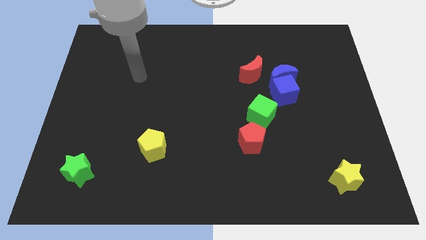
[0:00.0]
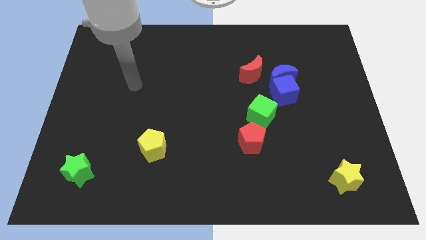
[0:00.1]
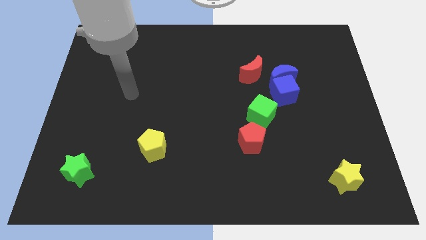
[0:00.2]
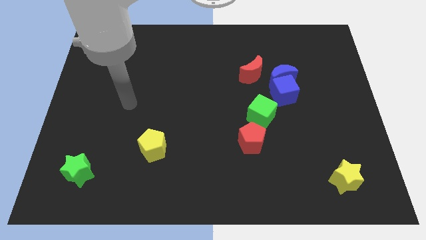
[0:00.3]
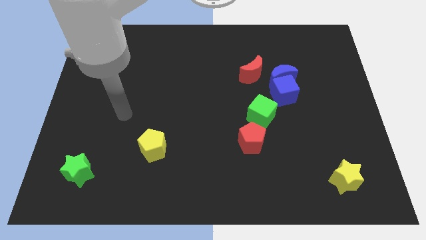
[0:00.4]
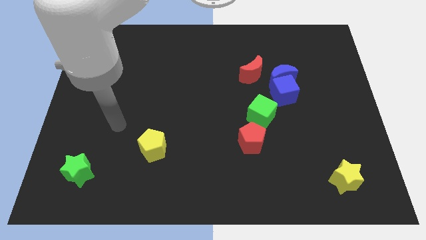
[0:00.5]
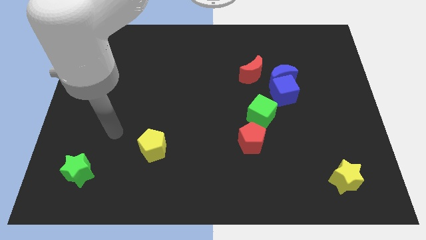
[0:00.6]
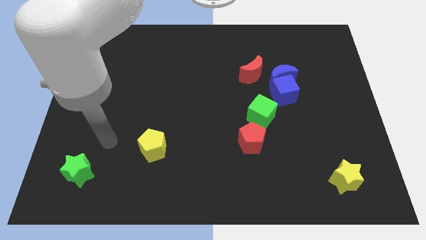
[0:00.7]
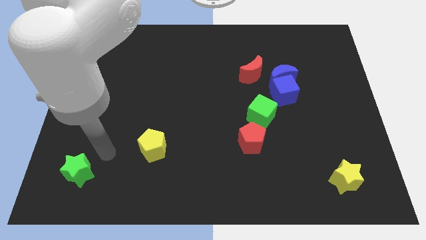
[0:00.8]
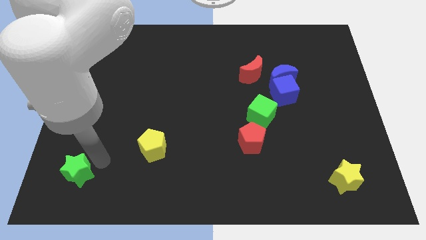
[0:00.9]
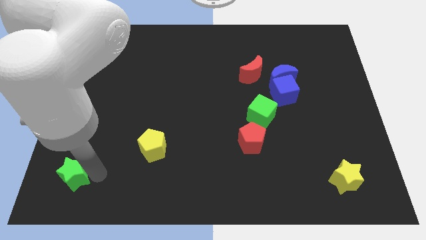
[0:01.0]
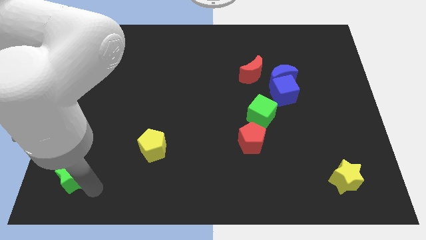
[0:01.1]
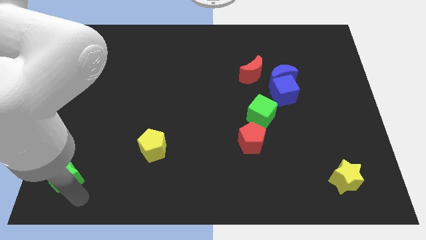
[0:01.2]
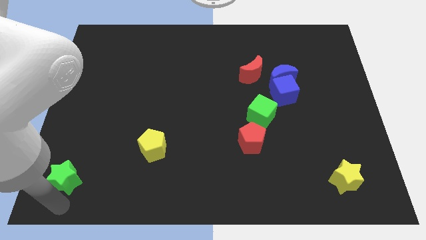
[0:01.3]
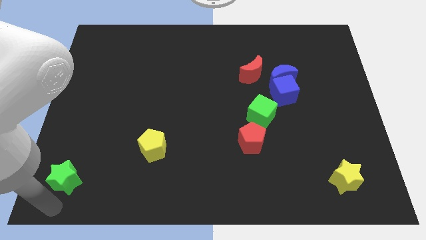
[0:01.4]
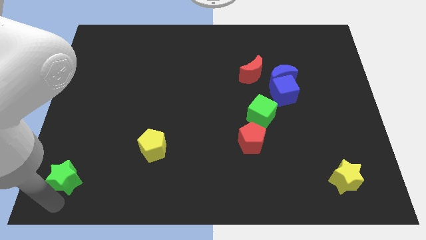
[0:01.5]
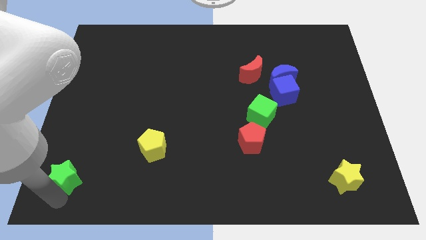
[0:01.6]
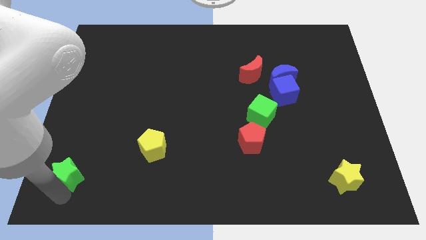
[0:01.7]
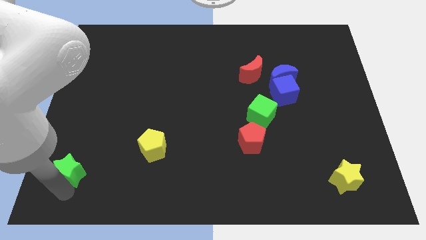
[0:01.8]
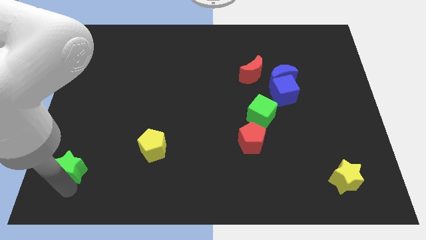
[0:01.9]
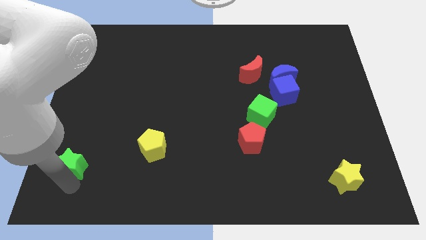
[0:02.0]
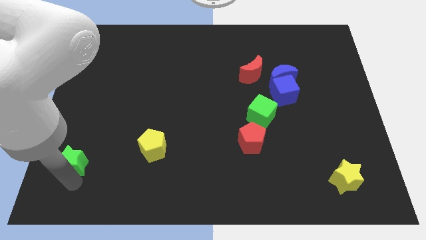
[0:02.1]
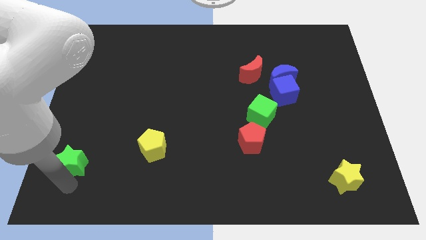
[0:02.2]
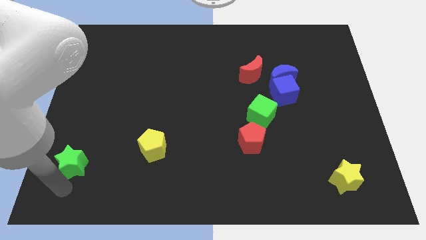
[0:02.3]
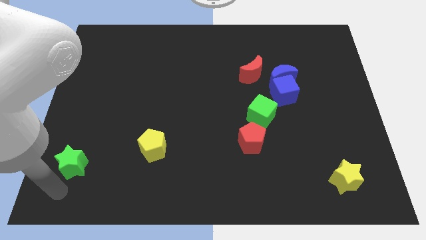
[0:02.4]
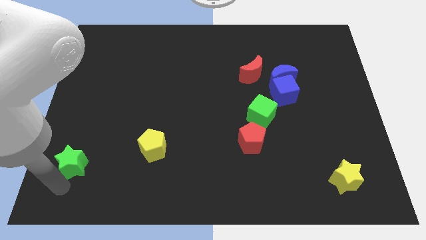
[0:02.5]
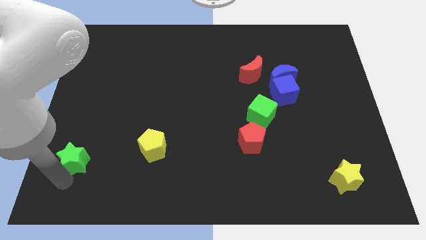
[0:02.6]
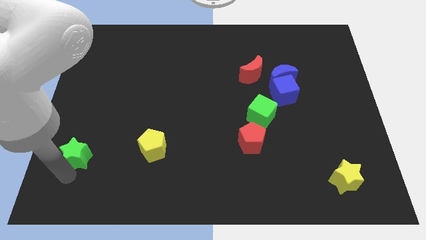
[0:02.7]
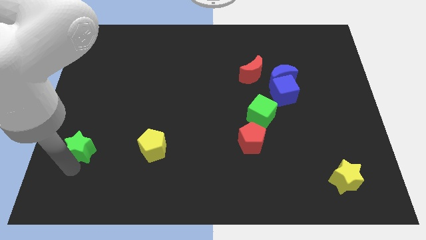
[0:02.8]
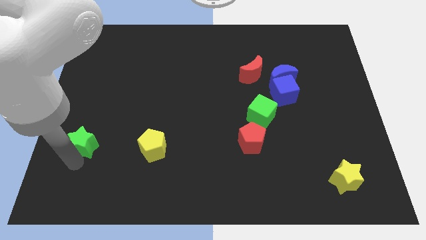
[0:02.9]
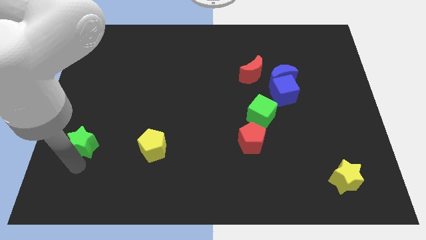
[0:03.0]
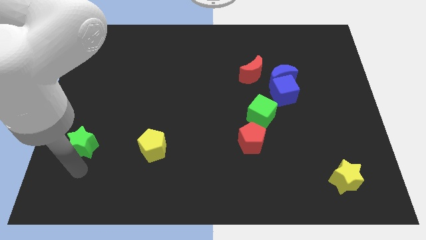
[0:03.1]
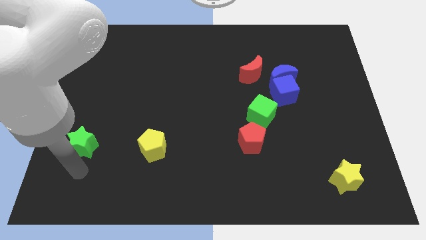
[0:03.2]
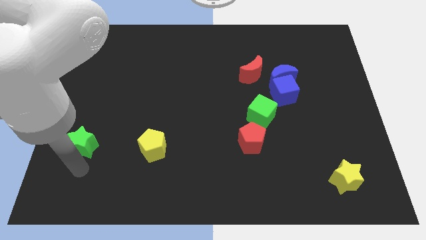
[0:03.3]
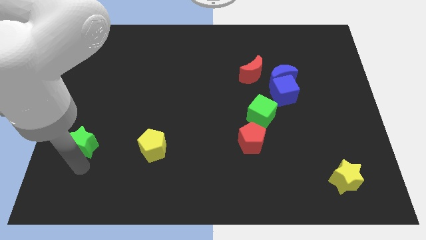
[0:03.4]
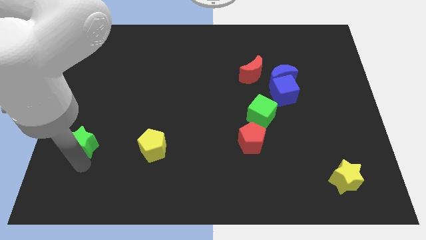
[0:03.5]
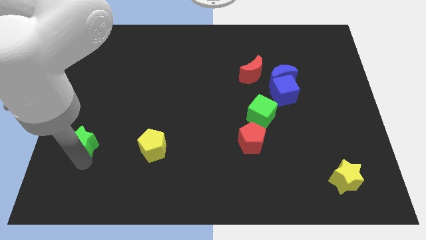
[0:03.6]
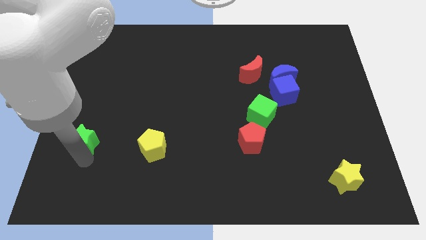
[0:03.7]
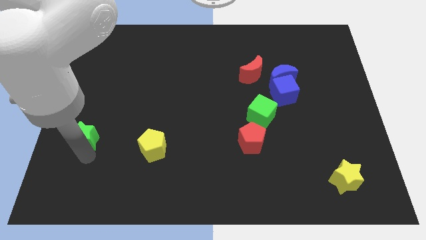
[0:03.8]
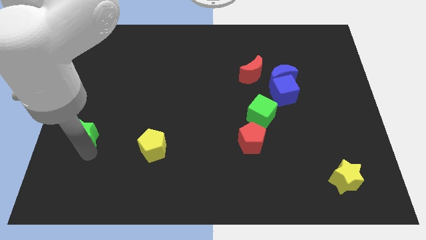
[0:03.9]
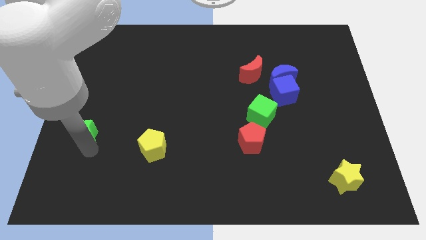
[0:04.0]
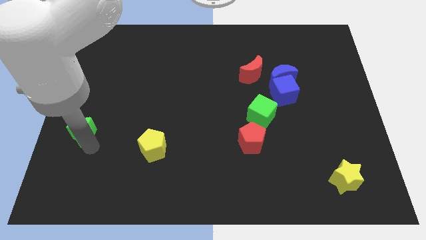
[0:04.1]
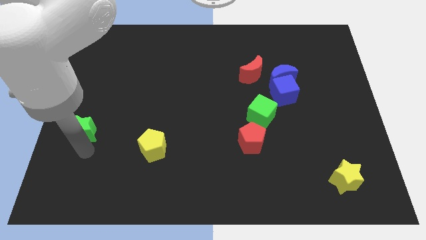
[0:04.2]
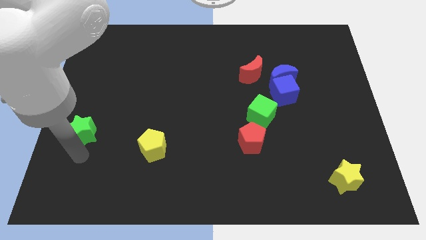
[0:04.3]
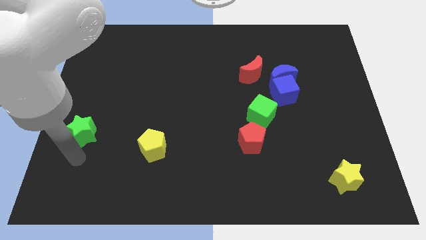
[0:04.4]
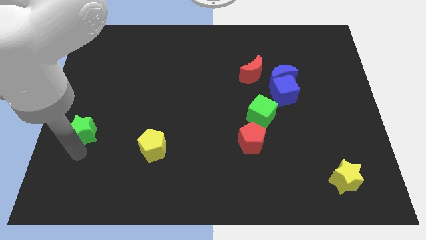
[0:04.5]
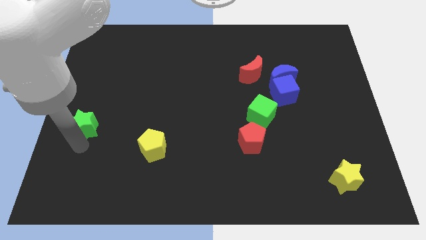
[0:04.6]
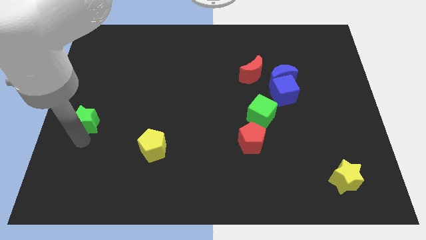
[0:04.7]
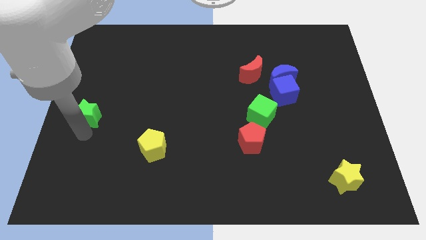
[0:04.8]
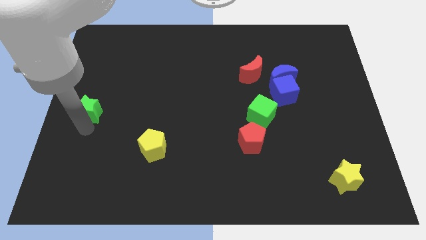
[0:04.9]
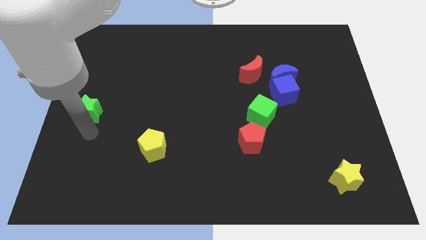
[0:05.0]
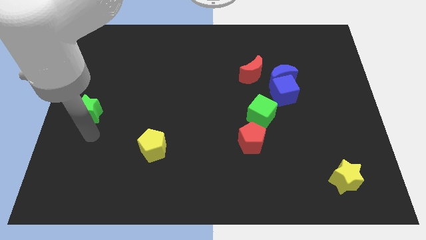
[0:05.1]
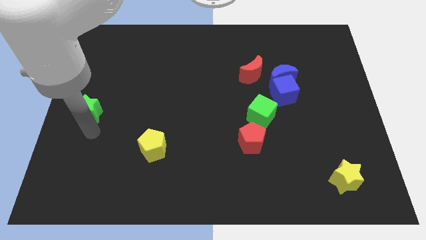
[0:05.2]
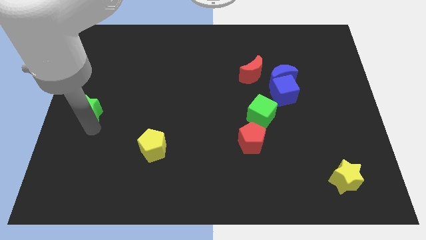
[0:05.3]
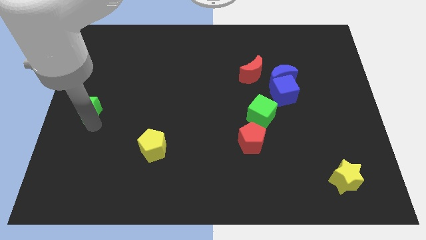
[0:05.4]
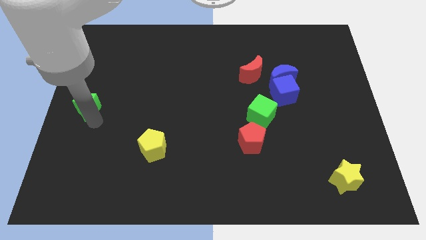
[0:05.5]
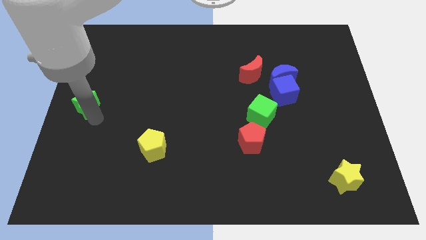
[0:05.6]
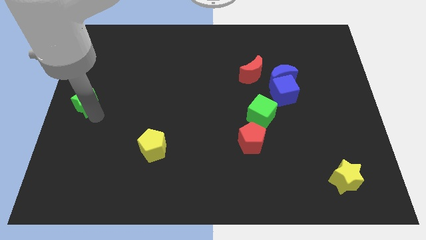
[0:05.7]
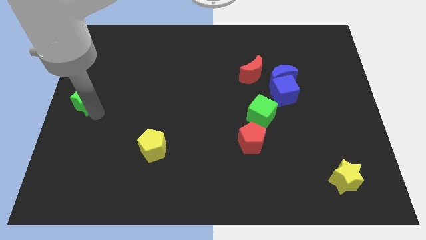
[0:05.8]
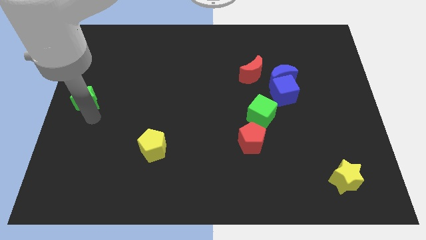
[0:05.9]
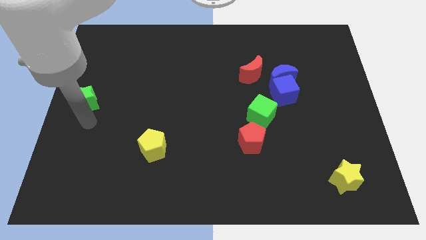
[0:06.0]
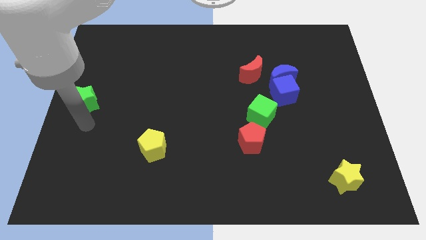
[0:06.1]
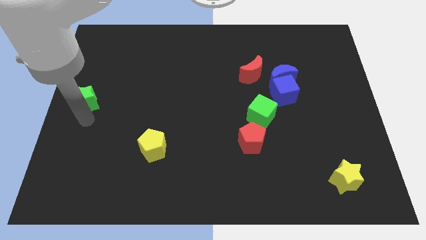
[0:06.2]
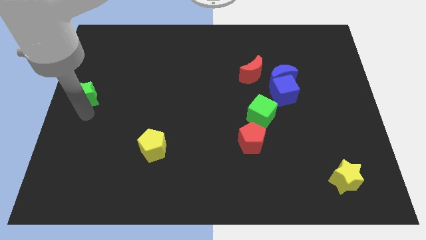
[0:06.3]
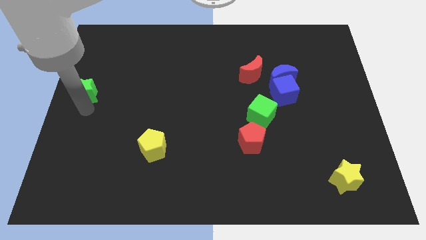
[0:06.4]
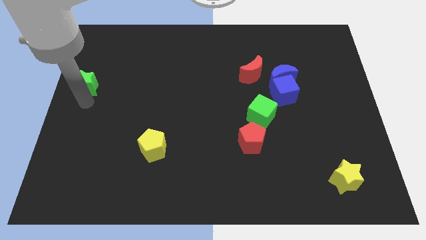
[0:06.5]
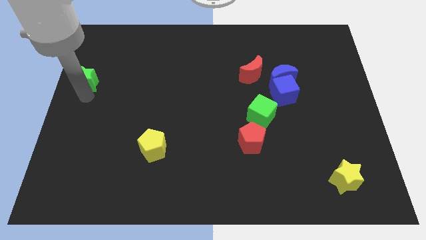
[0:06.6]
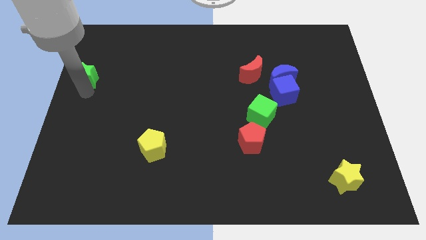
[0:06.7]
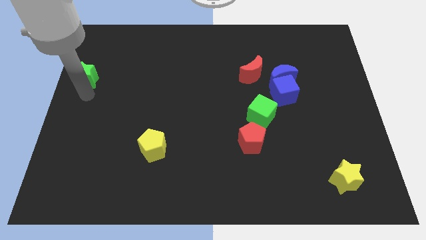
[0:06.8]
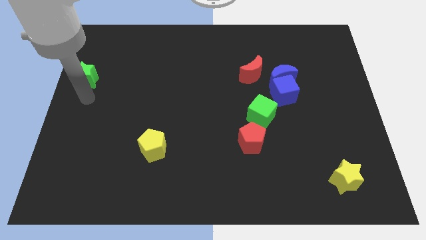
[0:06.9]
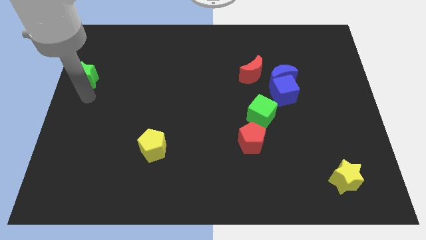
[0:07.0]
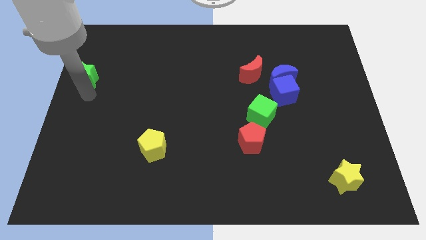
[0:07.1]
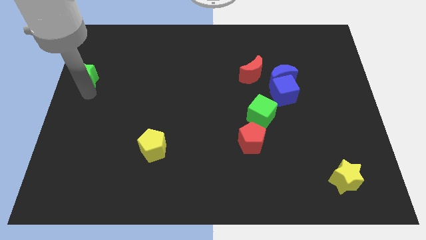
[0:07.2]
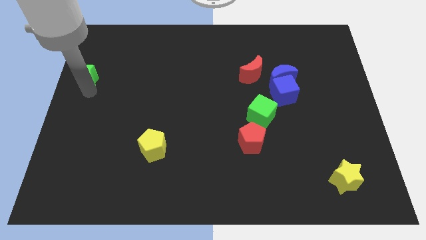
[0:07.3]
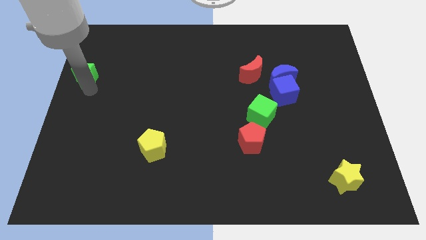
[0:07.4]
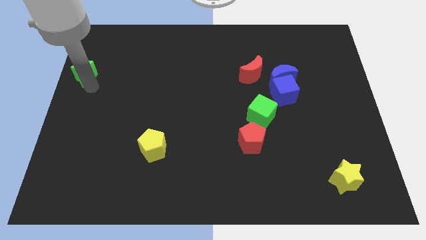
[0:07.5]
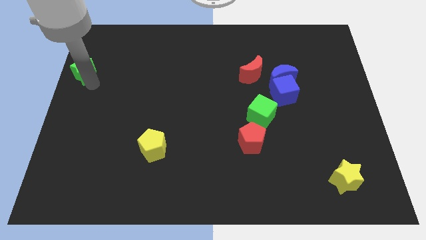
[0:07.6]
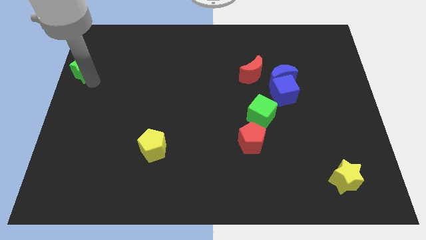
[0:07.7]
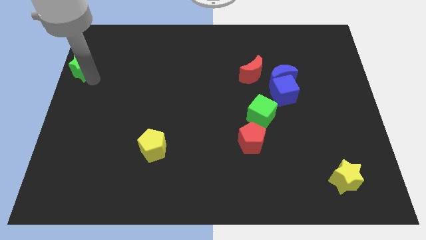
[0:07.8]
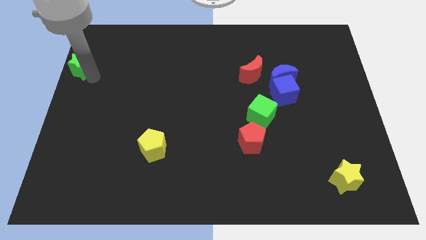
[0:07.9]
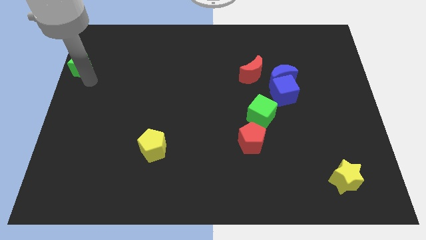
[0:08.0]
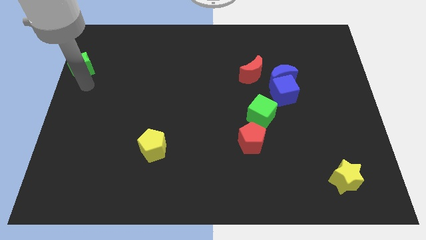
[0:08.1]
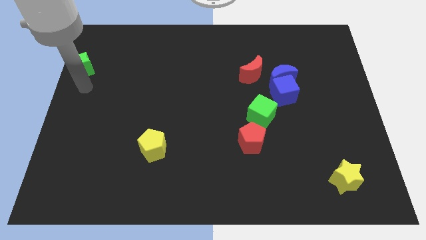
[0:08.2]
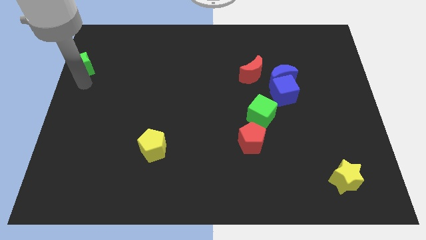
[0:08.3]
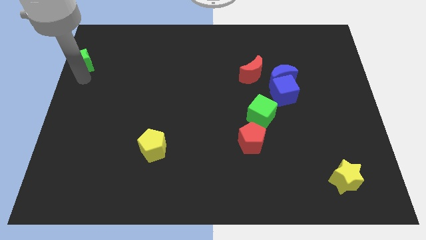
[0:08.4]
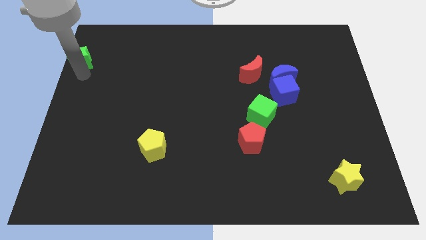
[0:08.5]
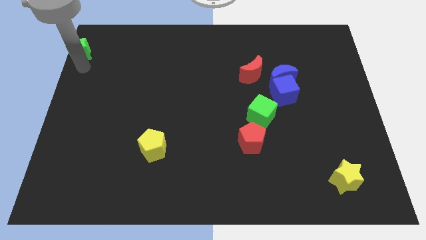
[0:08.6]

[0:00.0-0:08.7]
push the green star to the top left
